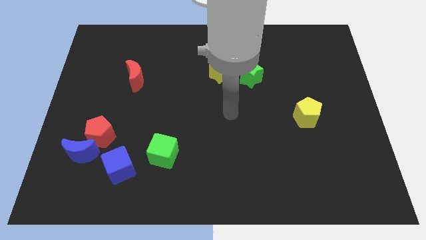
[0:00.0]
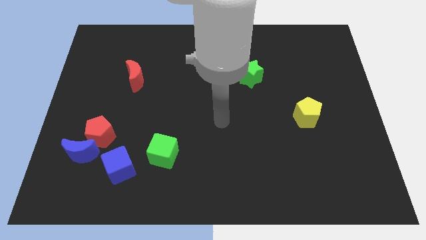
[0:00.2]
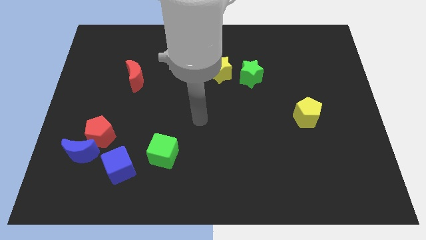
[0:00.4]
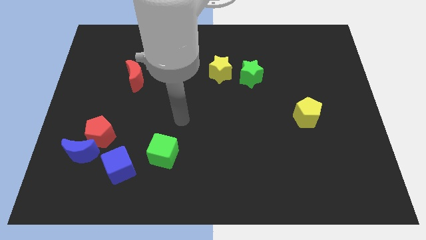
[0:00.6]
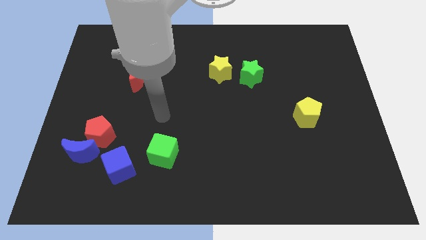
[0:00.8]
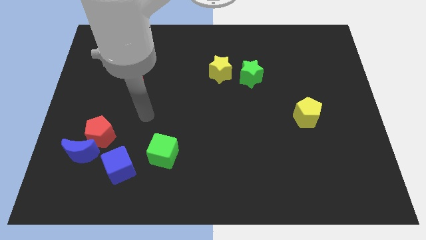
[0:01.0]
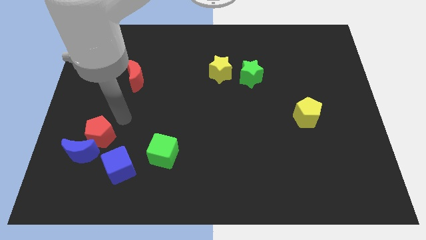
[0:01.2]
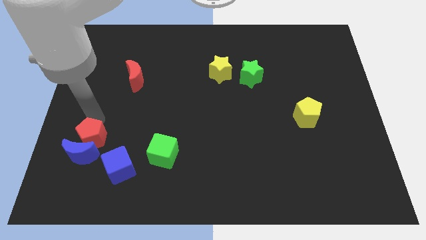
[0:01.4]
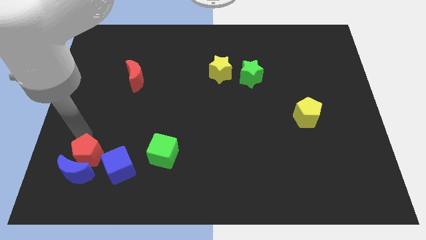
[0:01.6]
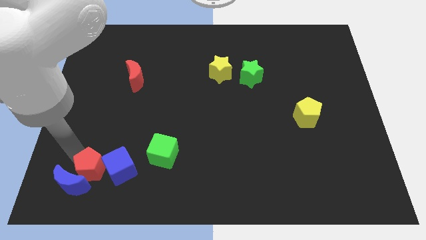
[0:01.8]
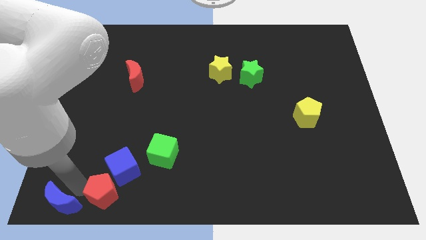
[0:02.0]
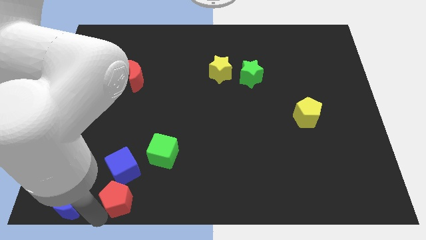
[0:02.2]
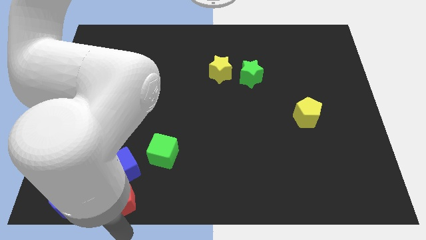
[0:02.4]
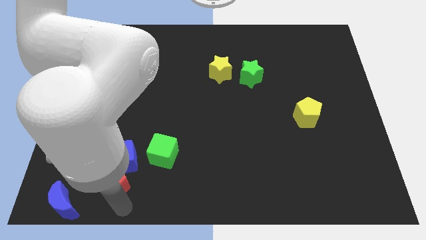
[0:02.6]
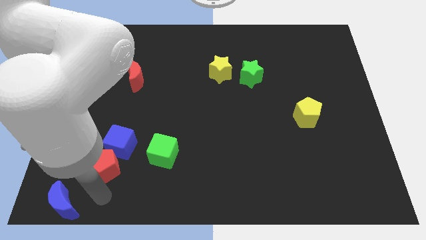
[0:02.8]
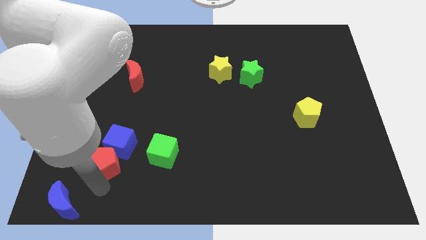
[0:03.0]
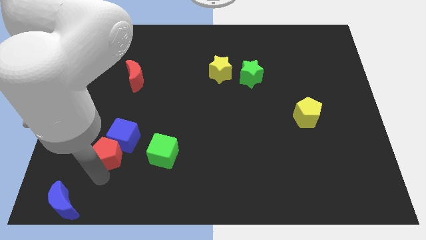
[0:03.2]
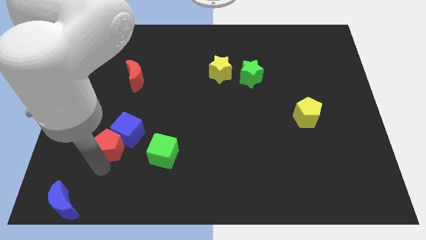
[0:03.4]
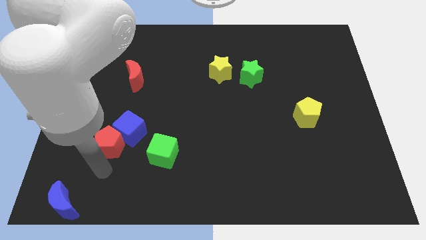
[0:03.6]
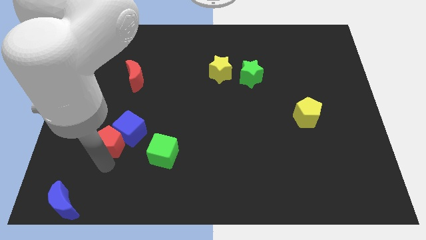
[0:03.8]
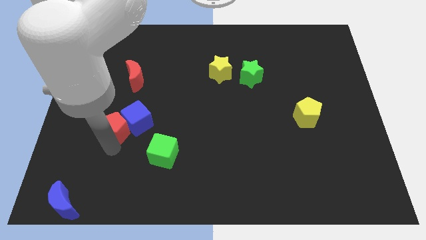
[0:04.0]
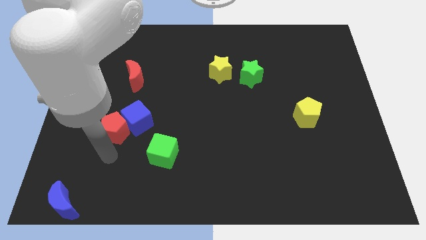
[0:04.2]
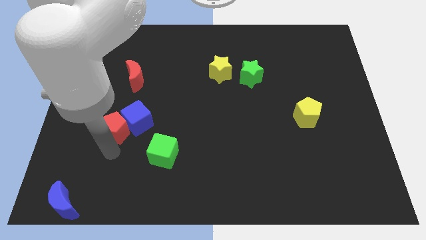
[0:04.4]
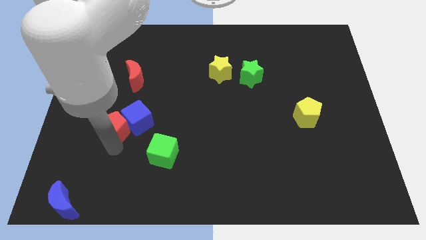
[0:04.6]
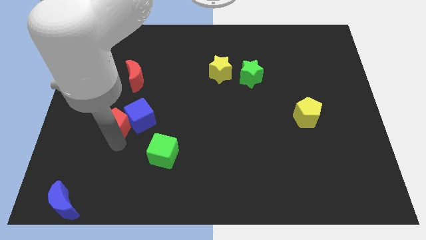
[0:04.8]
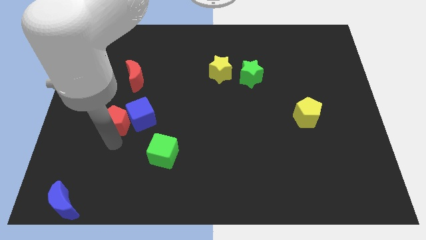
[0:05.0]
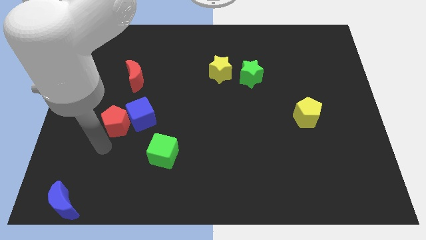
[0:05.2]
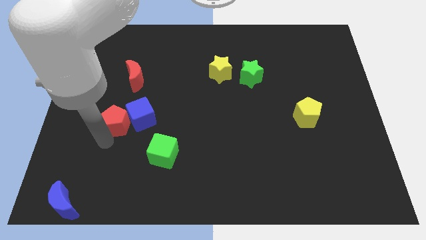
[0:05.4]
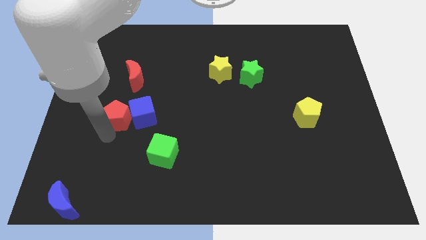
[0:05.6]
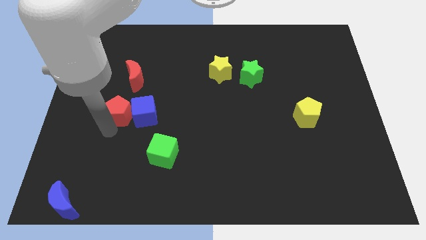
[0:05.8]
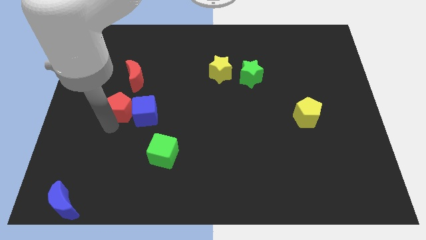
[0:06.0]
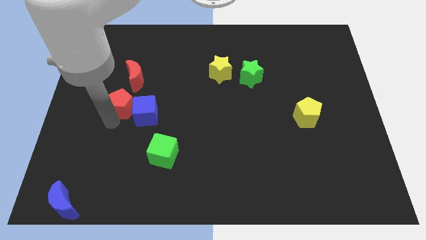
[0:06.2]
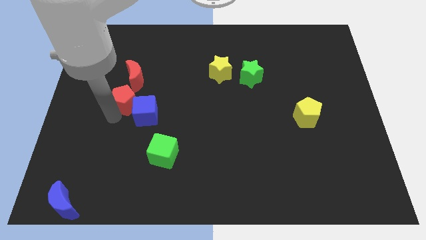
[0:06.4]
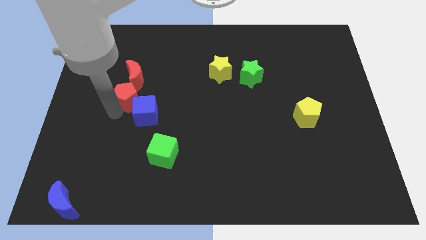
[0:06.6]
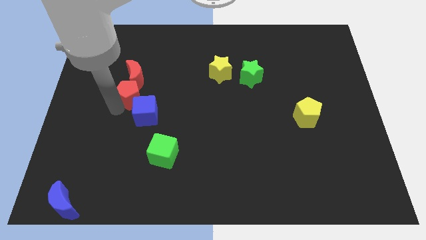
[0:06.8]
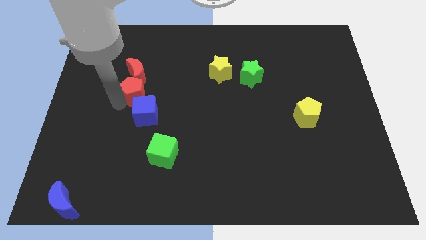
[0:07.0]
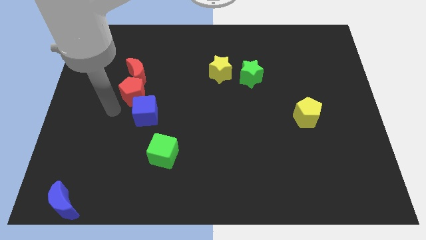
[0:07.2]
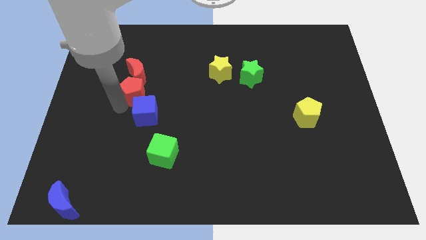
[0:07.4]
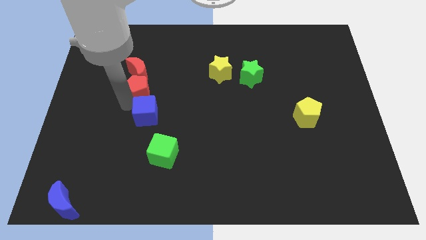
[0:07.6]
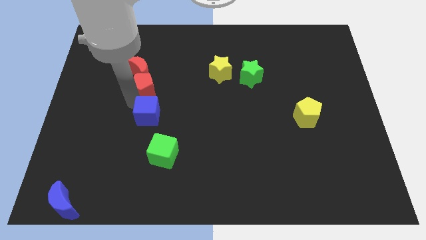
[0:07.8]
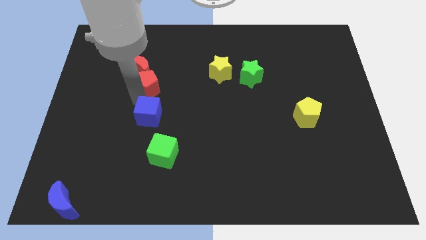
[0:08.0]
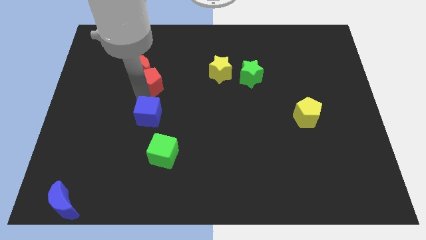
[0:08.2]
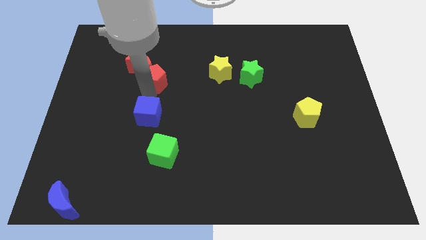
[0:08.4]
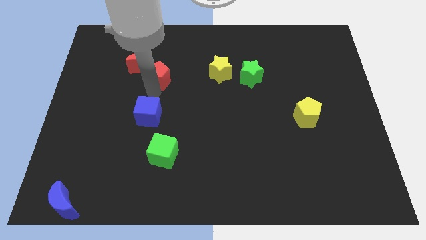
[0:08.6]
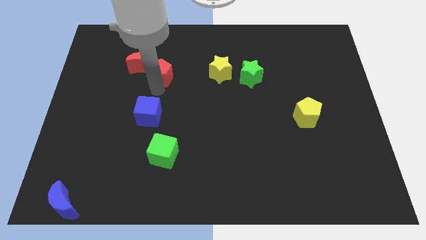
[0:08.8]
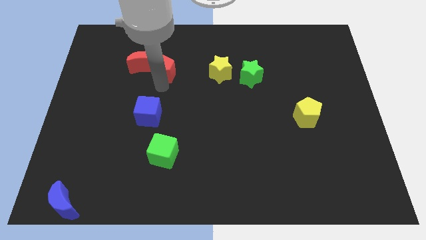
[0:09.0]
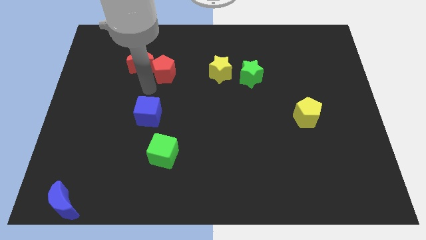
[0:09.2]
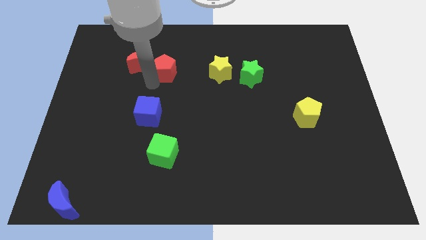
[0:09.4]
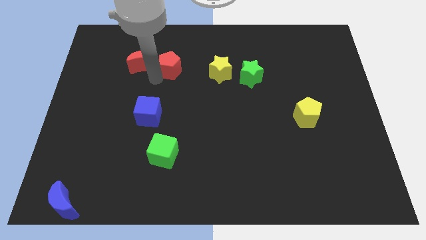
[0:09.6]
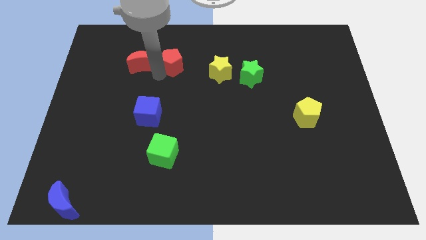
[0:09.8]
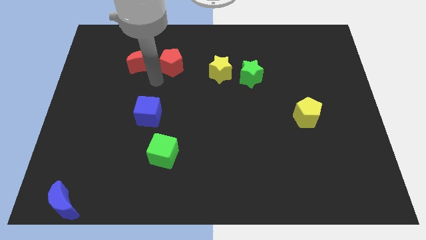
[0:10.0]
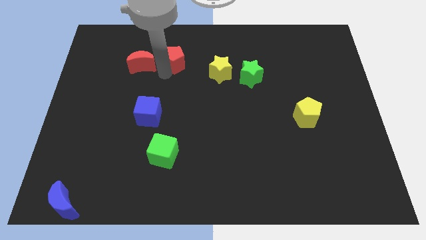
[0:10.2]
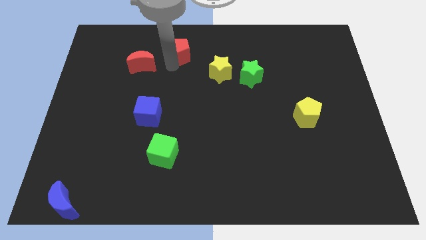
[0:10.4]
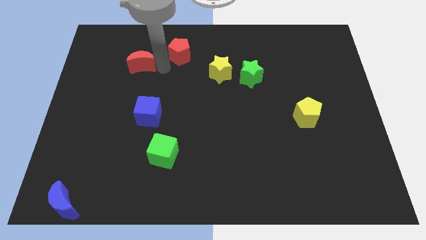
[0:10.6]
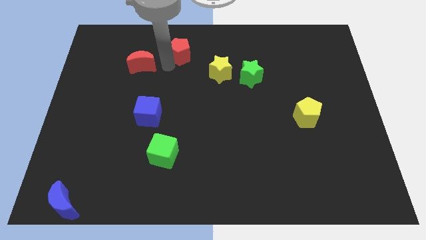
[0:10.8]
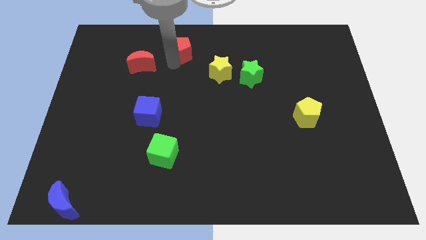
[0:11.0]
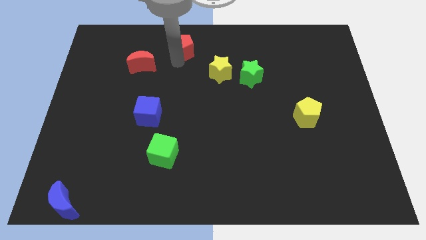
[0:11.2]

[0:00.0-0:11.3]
push the red pentagon to the towards your base
